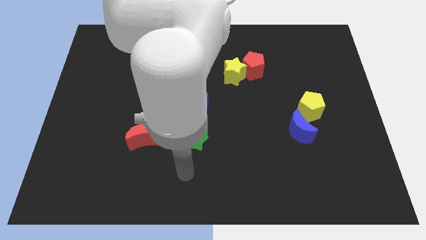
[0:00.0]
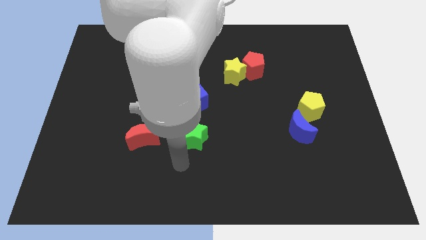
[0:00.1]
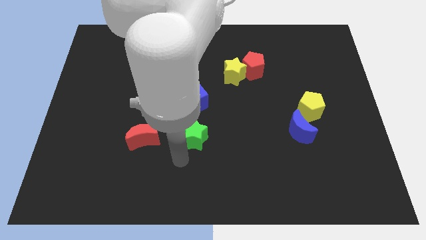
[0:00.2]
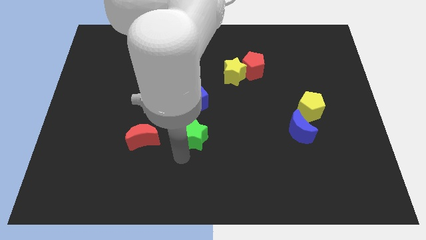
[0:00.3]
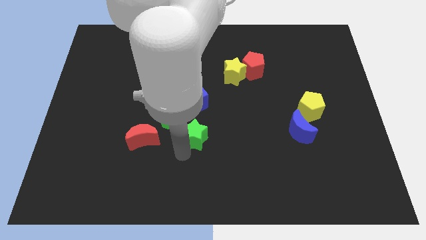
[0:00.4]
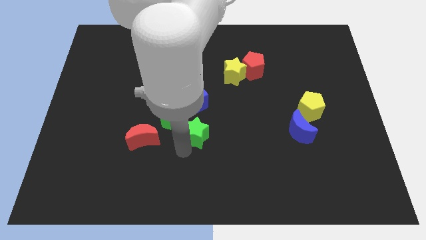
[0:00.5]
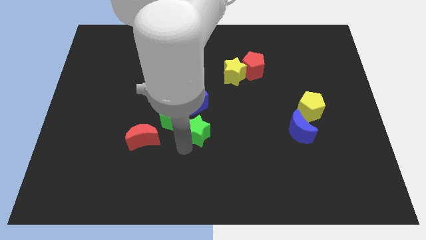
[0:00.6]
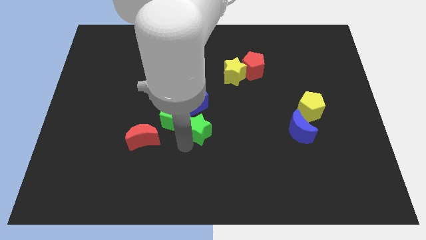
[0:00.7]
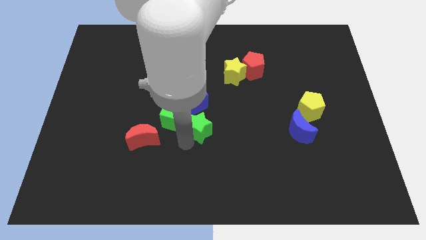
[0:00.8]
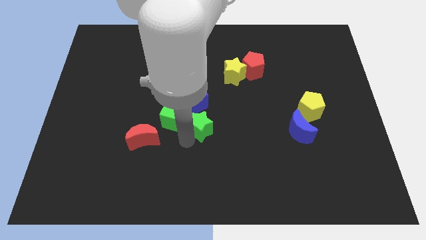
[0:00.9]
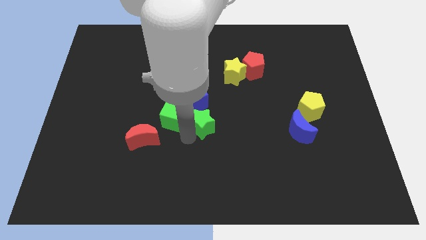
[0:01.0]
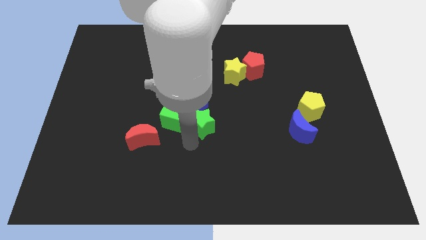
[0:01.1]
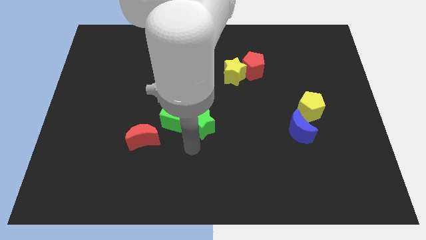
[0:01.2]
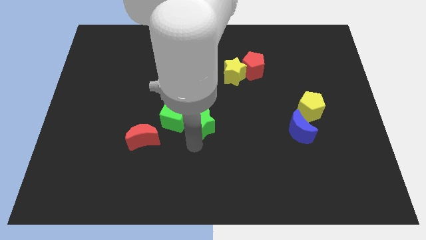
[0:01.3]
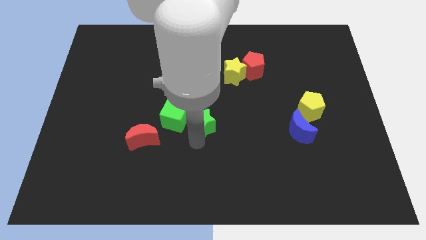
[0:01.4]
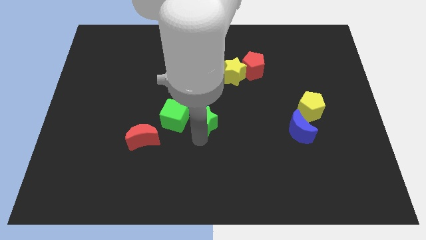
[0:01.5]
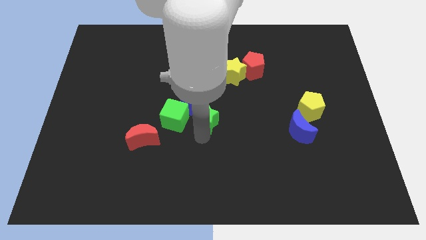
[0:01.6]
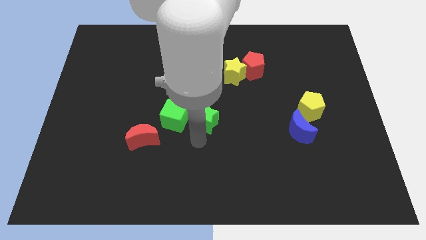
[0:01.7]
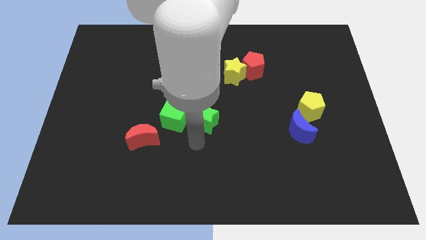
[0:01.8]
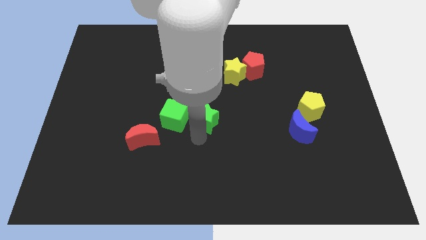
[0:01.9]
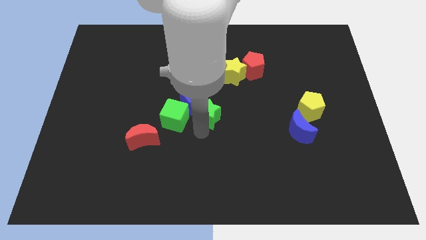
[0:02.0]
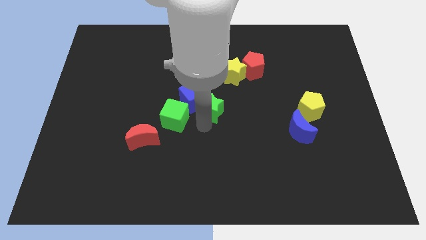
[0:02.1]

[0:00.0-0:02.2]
move the green star slightly up

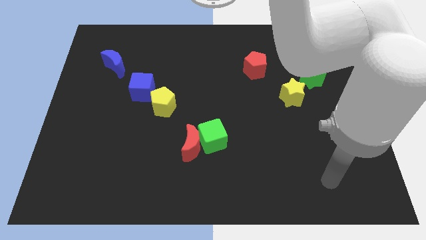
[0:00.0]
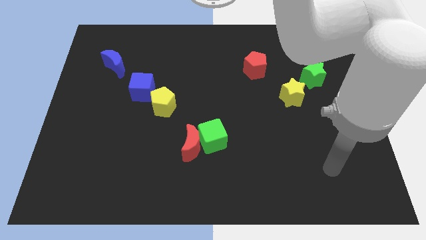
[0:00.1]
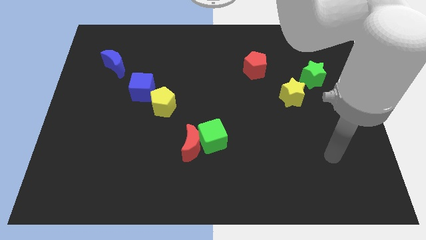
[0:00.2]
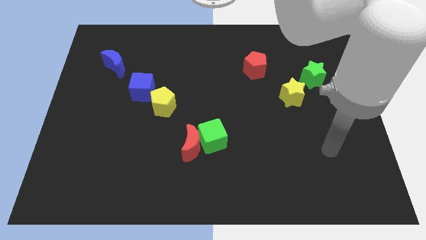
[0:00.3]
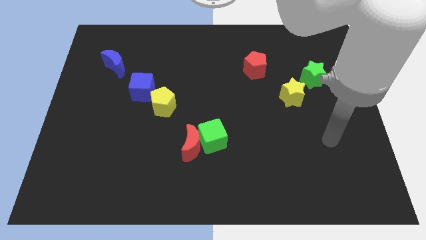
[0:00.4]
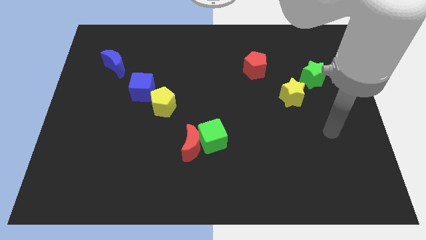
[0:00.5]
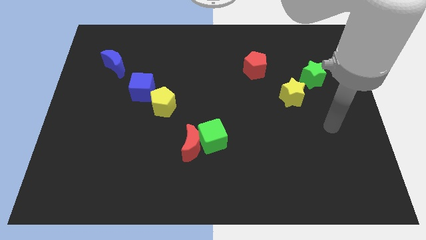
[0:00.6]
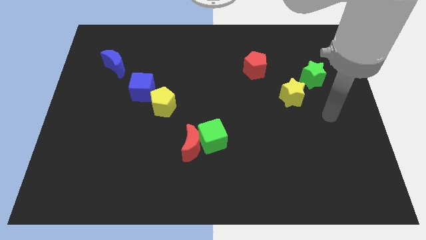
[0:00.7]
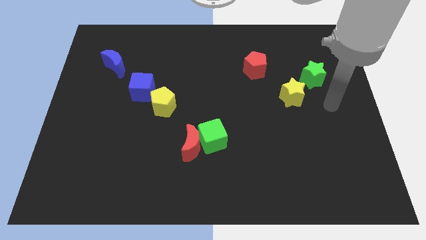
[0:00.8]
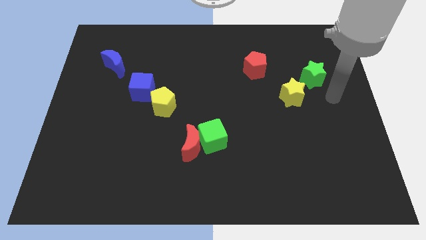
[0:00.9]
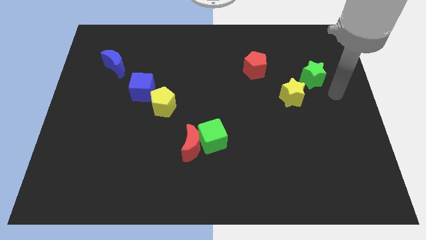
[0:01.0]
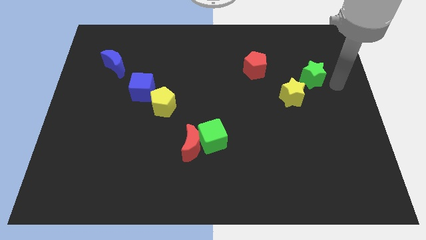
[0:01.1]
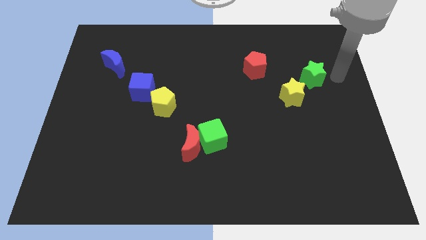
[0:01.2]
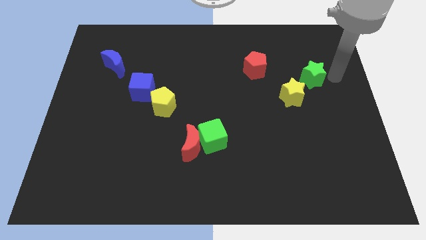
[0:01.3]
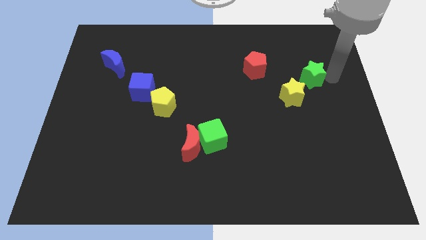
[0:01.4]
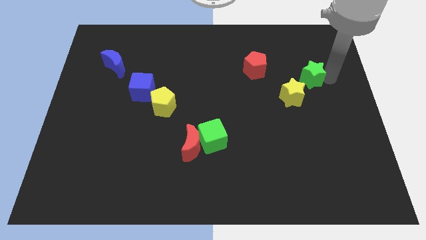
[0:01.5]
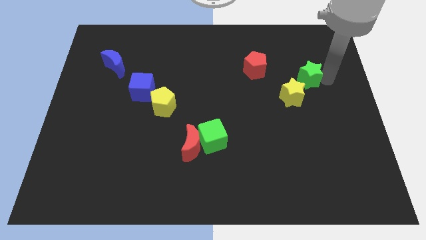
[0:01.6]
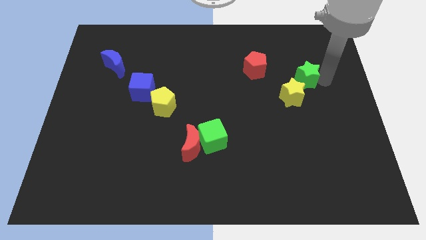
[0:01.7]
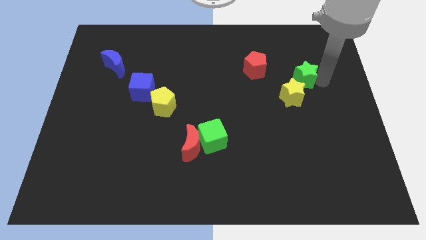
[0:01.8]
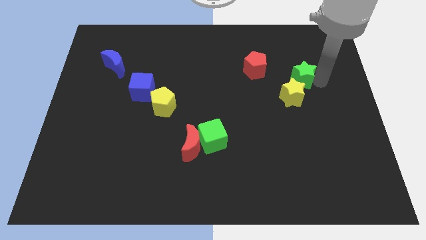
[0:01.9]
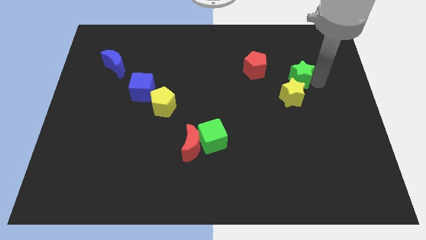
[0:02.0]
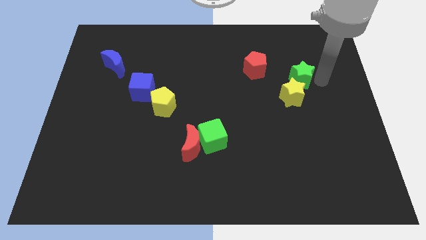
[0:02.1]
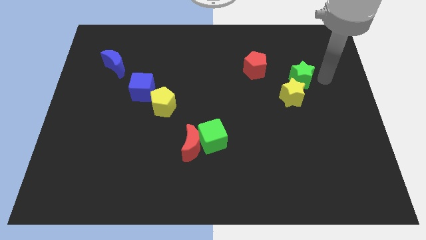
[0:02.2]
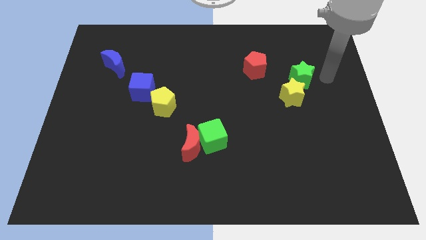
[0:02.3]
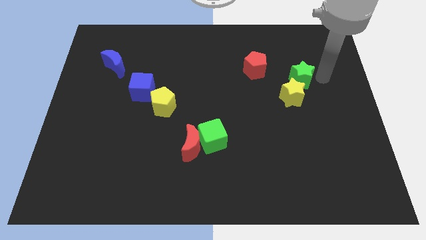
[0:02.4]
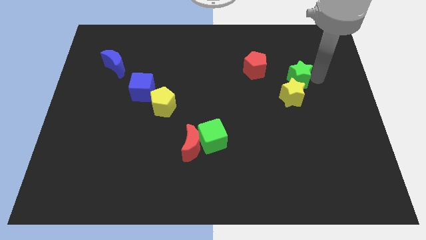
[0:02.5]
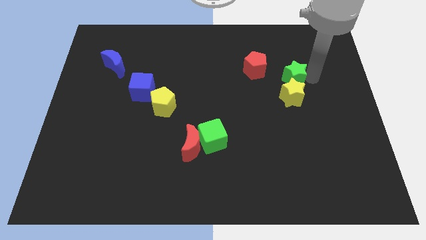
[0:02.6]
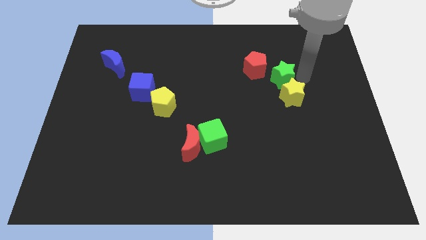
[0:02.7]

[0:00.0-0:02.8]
slide the green star to the left slightly

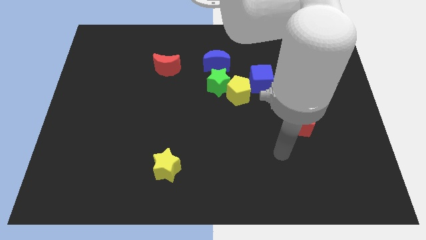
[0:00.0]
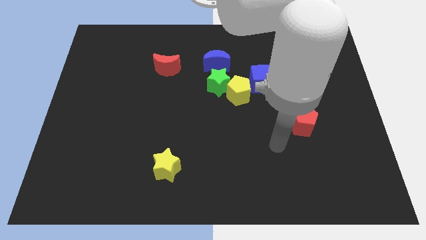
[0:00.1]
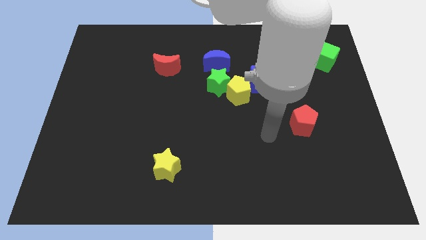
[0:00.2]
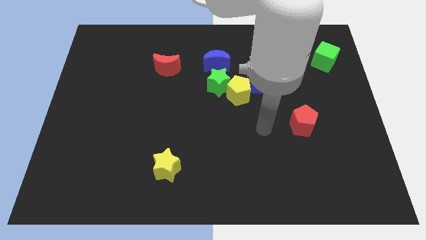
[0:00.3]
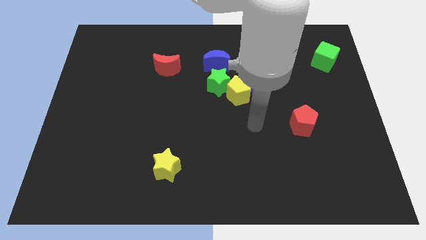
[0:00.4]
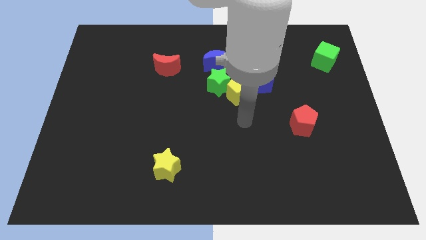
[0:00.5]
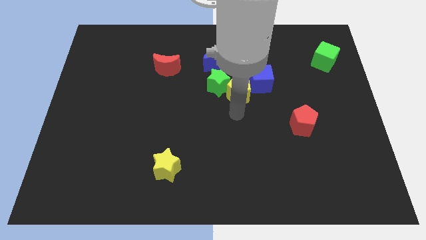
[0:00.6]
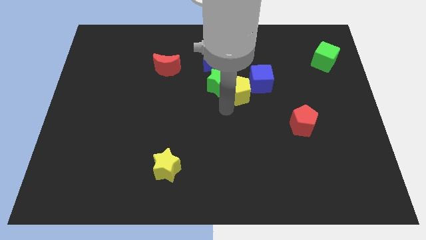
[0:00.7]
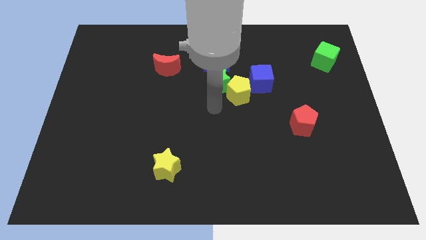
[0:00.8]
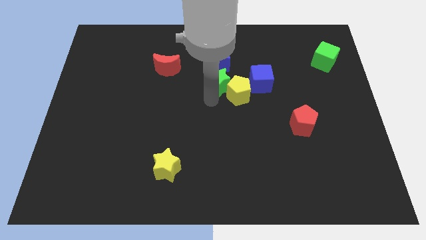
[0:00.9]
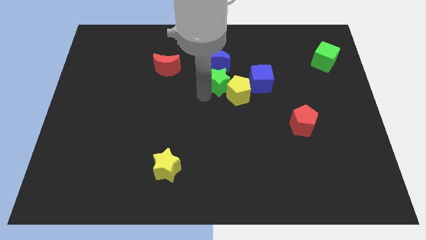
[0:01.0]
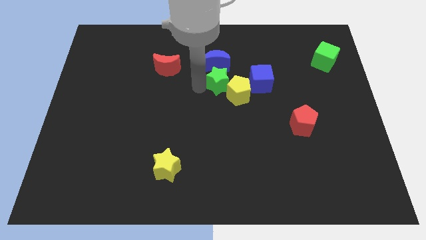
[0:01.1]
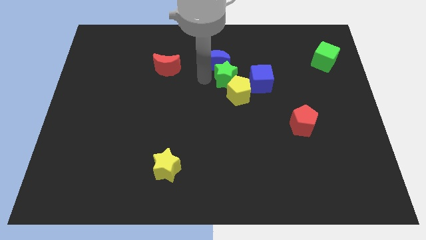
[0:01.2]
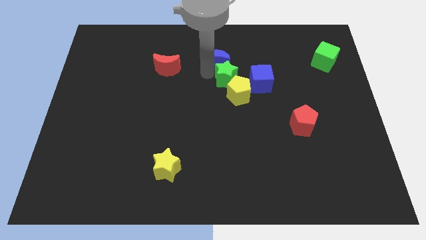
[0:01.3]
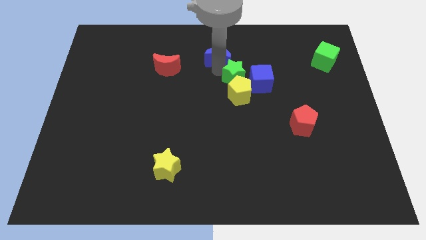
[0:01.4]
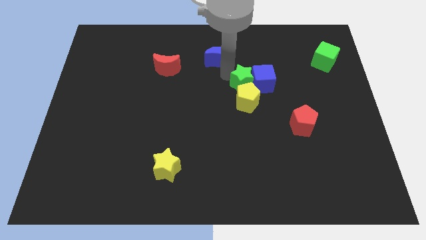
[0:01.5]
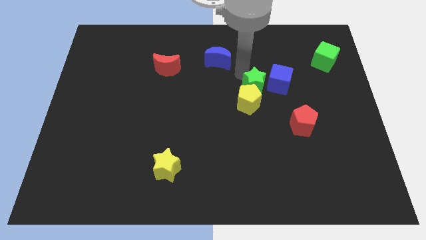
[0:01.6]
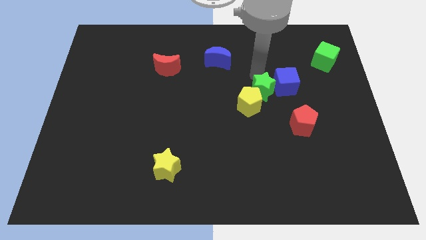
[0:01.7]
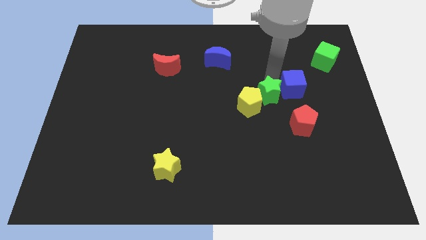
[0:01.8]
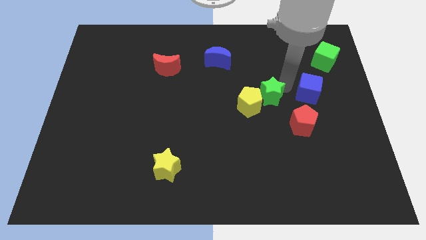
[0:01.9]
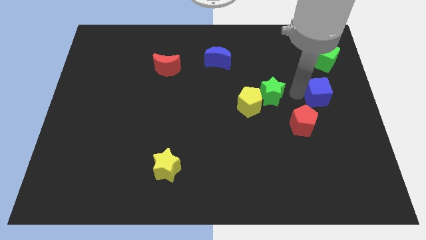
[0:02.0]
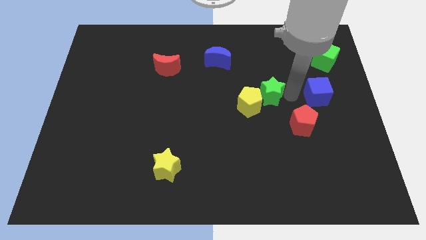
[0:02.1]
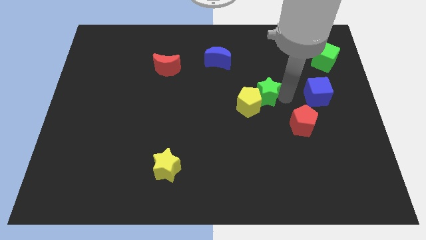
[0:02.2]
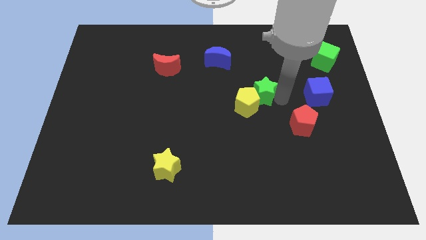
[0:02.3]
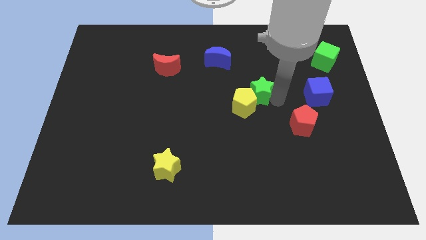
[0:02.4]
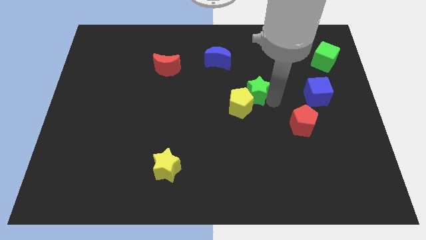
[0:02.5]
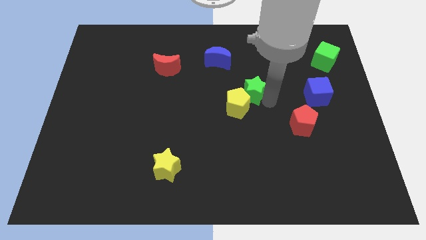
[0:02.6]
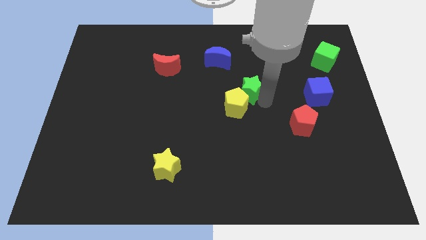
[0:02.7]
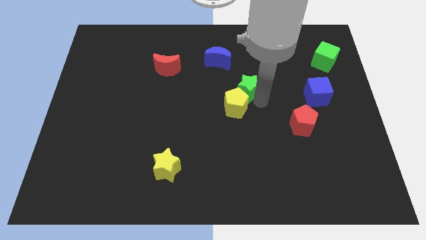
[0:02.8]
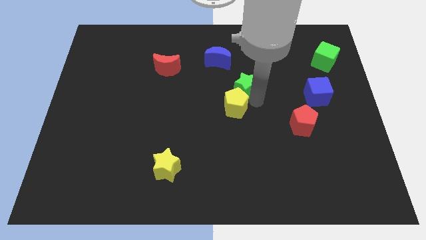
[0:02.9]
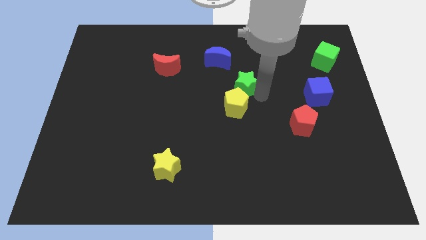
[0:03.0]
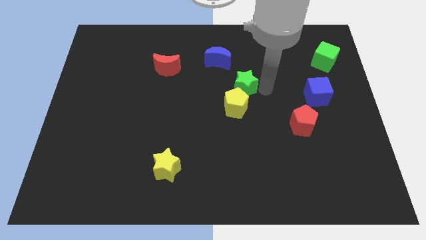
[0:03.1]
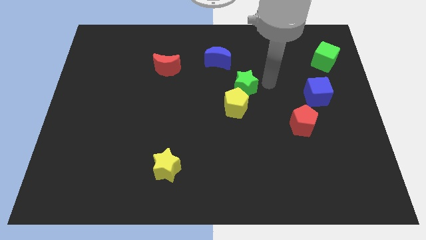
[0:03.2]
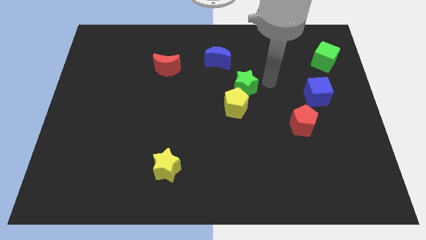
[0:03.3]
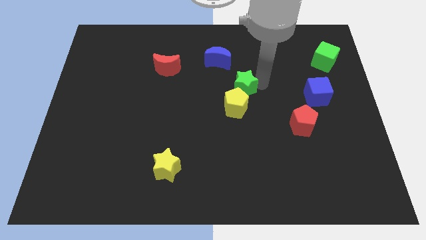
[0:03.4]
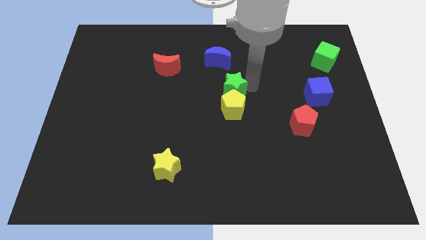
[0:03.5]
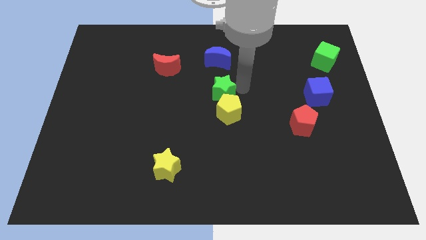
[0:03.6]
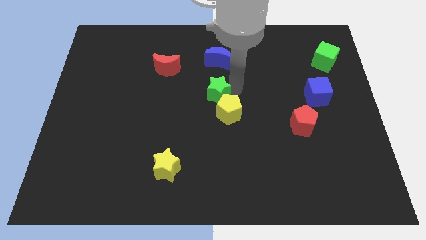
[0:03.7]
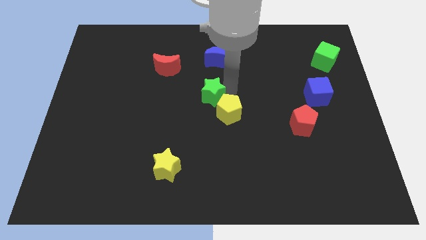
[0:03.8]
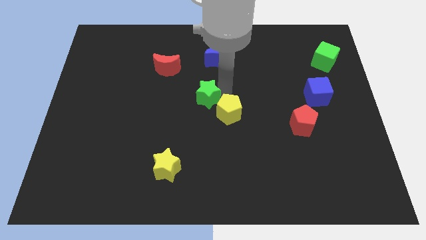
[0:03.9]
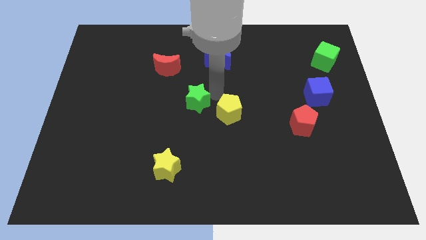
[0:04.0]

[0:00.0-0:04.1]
push the green star downwards and then to the left slightly
